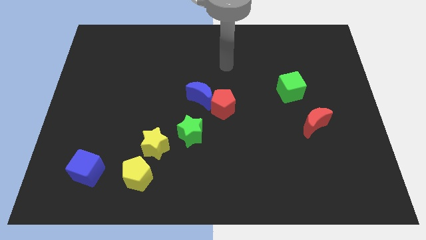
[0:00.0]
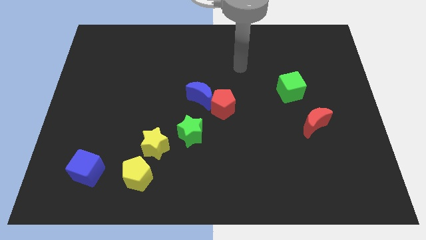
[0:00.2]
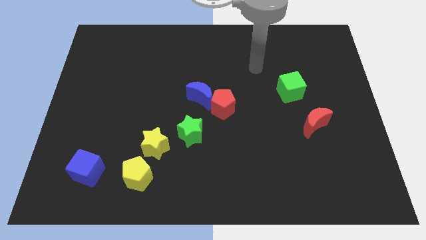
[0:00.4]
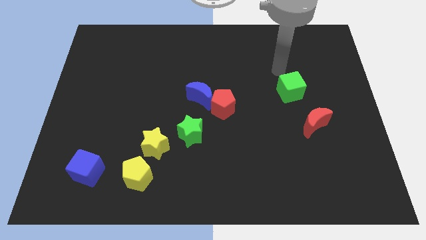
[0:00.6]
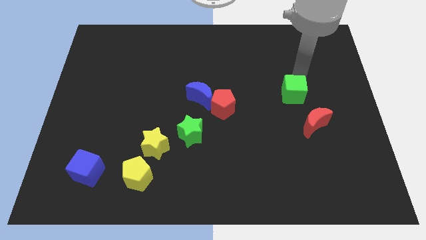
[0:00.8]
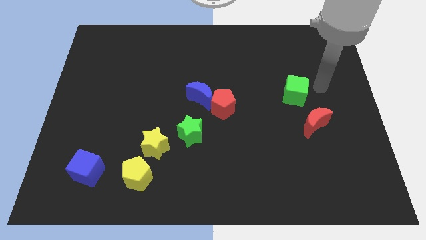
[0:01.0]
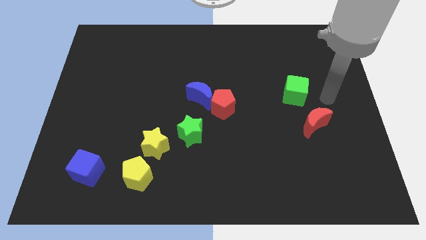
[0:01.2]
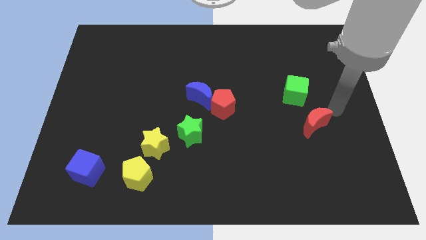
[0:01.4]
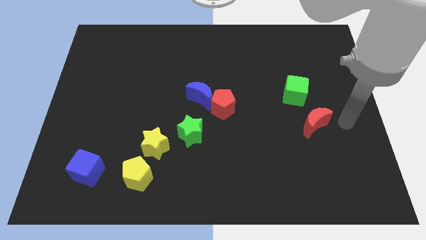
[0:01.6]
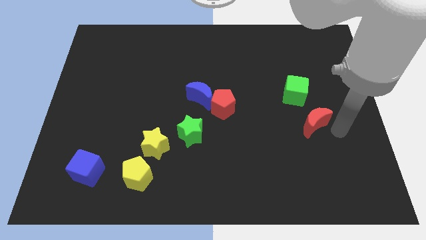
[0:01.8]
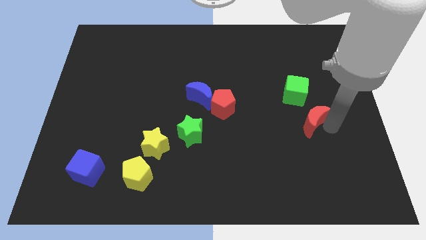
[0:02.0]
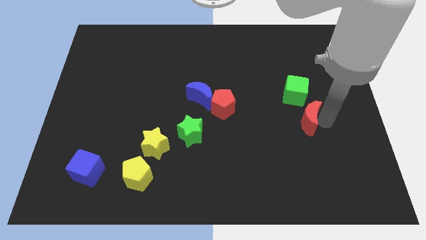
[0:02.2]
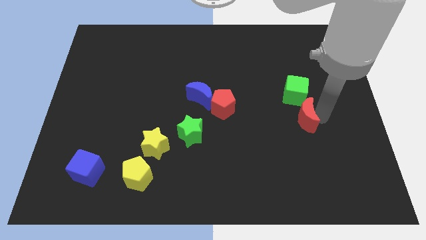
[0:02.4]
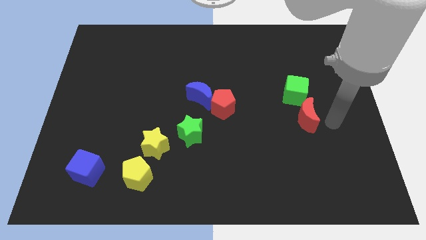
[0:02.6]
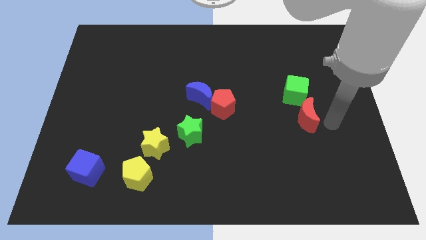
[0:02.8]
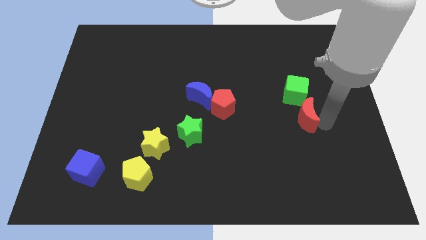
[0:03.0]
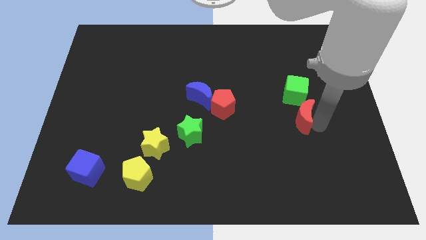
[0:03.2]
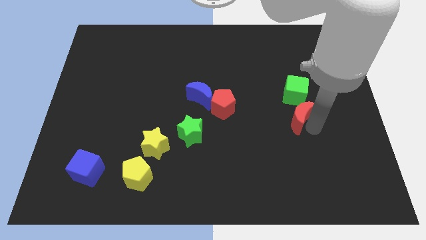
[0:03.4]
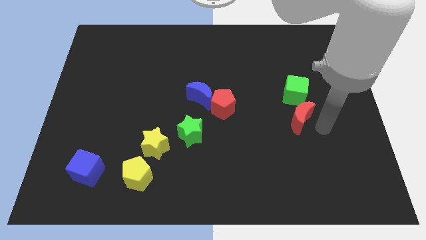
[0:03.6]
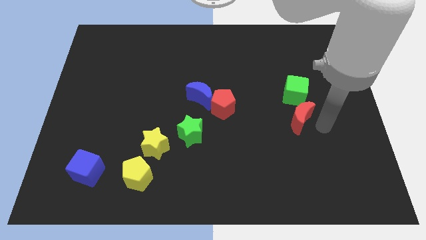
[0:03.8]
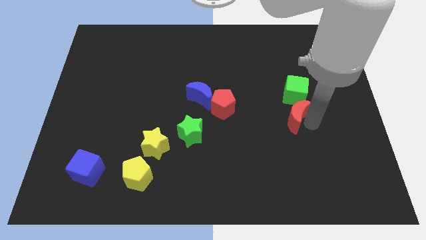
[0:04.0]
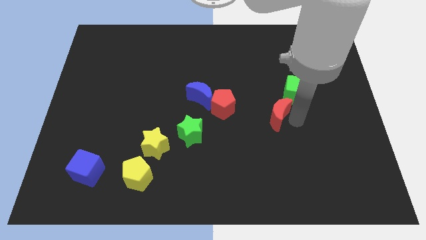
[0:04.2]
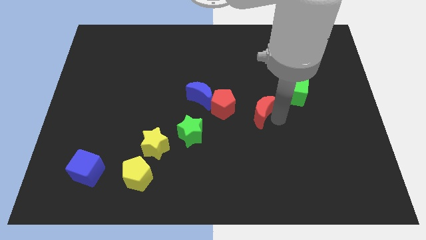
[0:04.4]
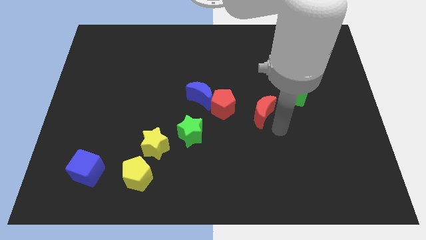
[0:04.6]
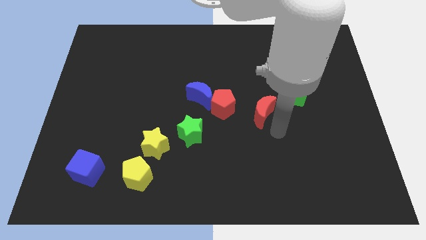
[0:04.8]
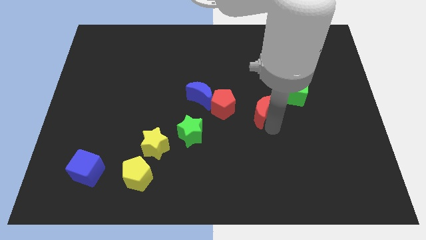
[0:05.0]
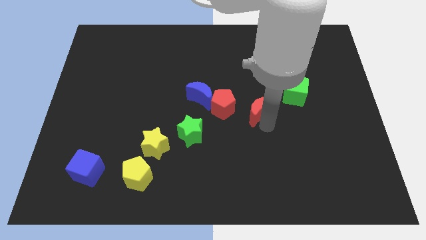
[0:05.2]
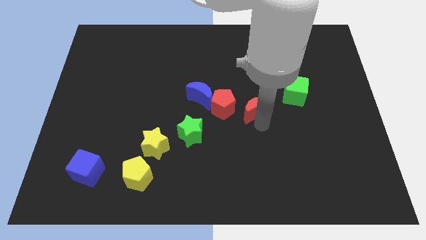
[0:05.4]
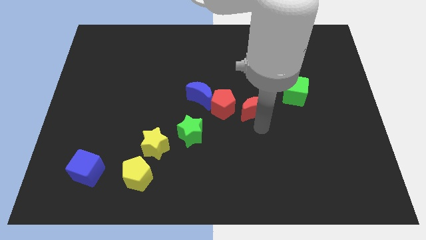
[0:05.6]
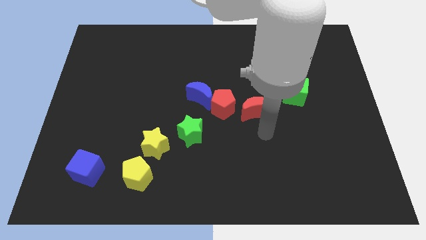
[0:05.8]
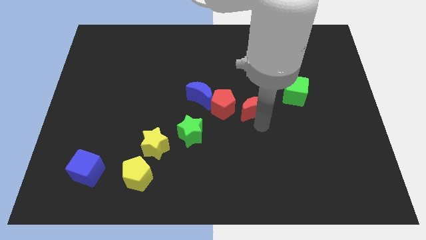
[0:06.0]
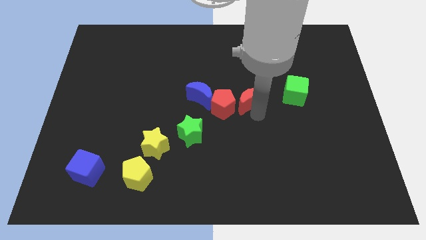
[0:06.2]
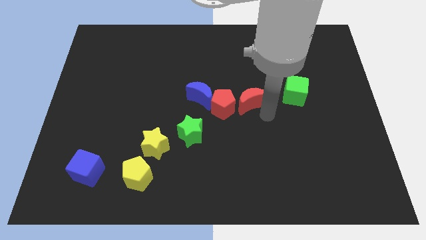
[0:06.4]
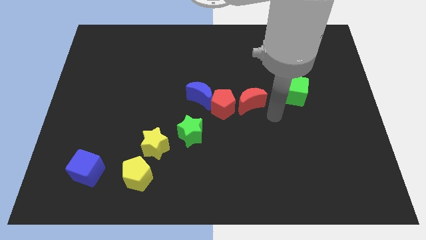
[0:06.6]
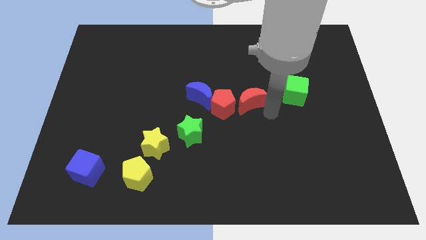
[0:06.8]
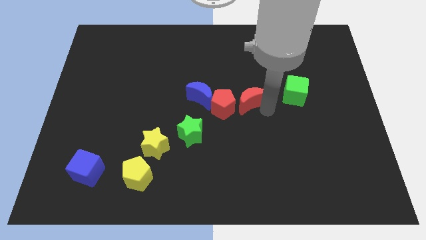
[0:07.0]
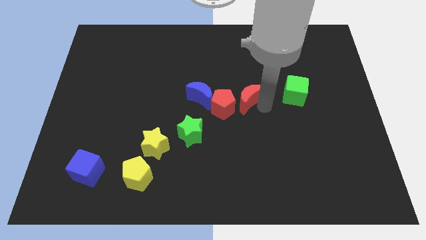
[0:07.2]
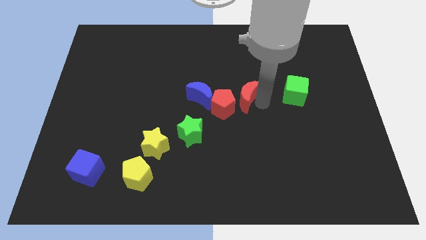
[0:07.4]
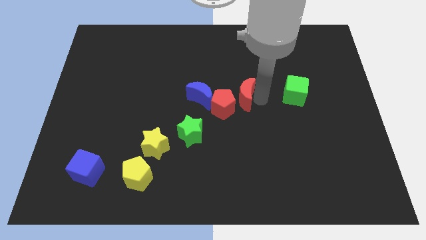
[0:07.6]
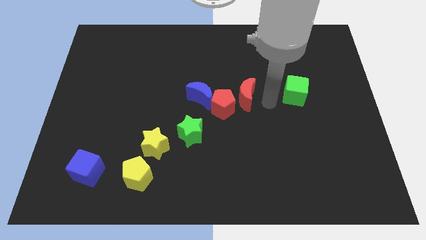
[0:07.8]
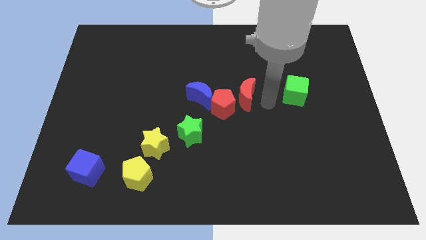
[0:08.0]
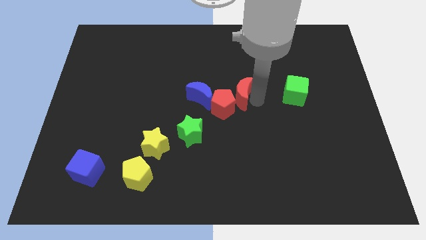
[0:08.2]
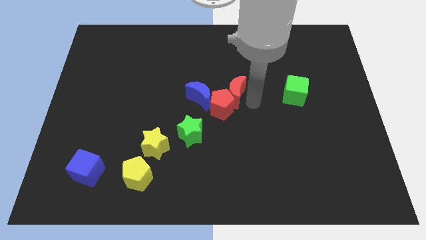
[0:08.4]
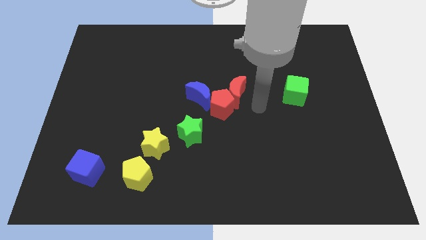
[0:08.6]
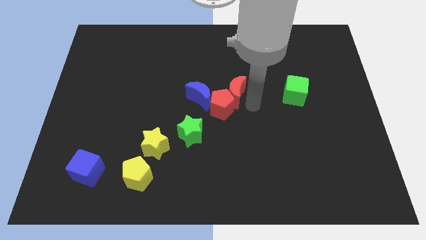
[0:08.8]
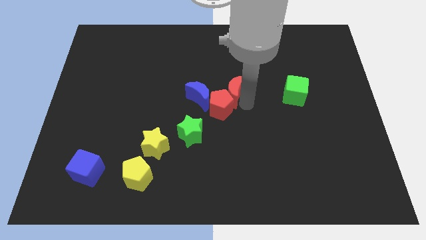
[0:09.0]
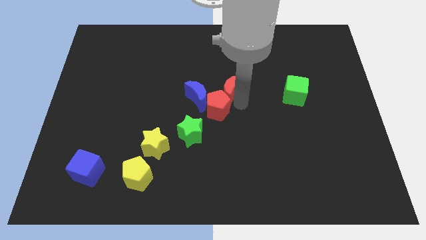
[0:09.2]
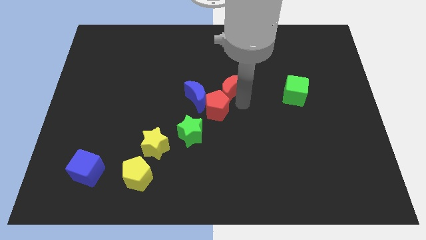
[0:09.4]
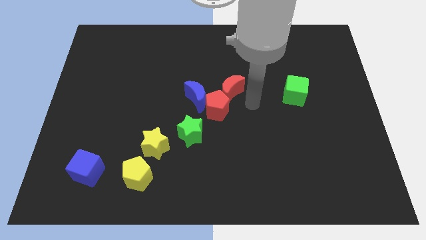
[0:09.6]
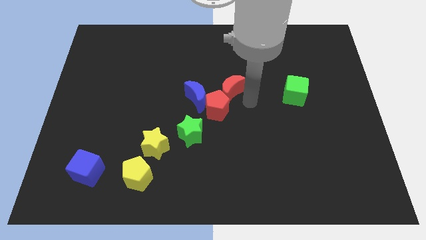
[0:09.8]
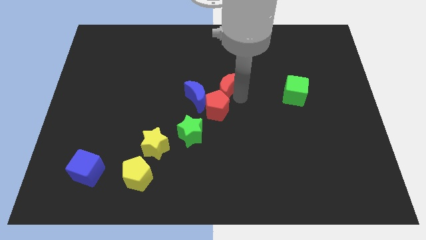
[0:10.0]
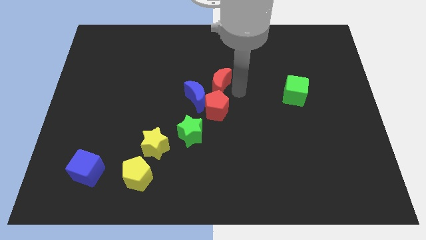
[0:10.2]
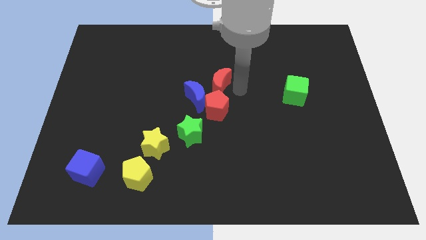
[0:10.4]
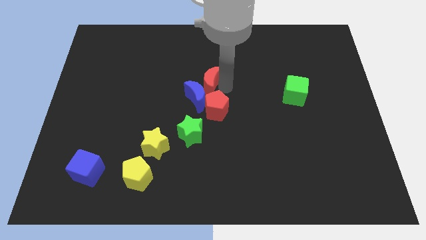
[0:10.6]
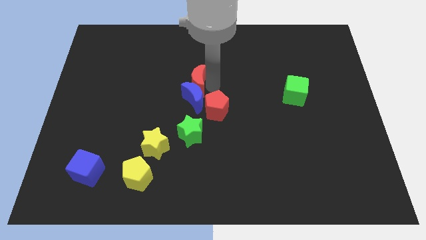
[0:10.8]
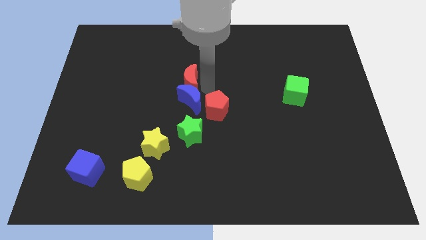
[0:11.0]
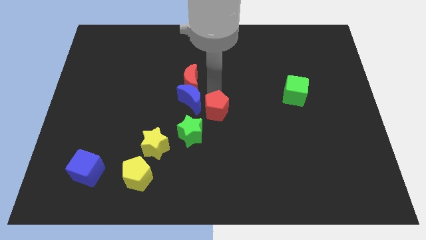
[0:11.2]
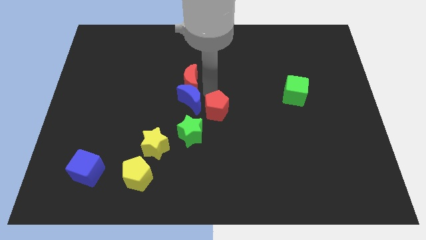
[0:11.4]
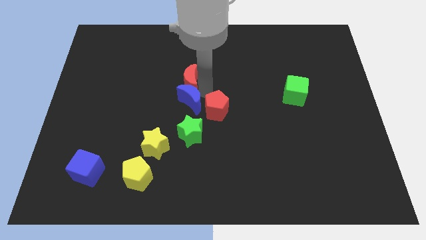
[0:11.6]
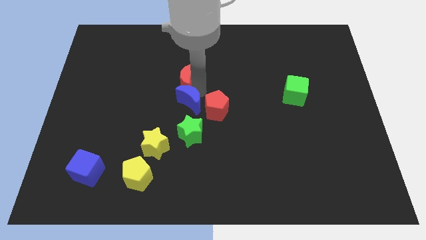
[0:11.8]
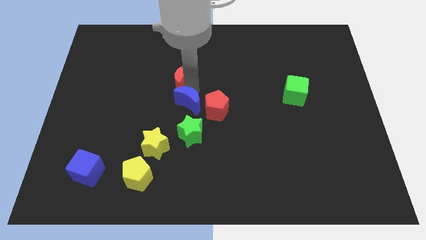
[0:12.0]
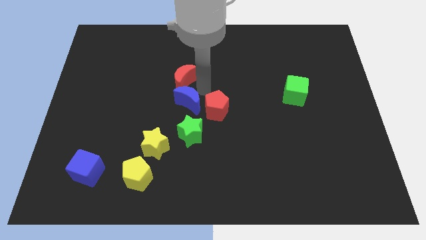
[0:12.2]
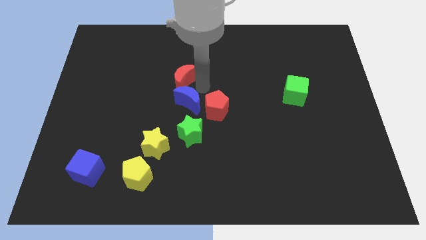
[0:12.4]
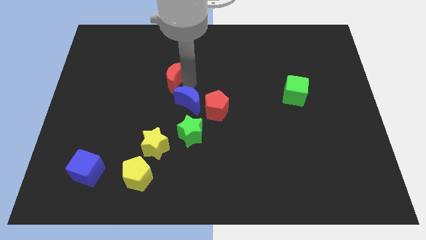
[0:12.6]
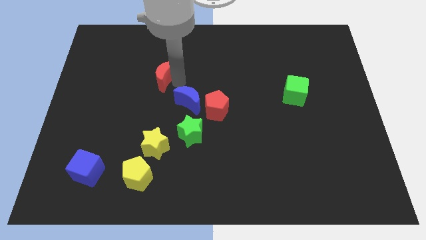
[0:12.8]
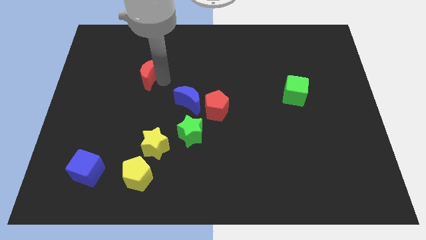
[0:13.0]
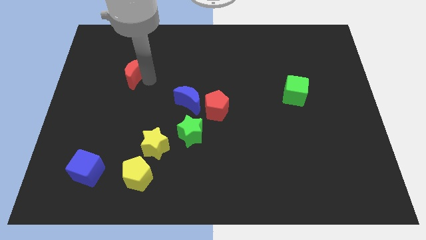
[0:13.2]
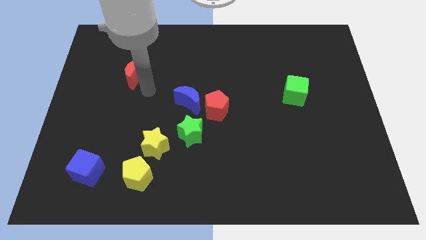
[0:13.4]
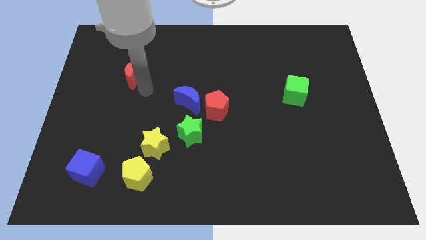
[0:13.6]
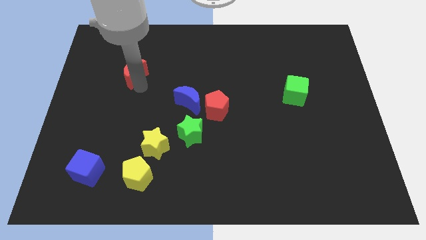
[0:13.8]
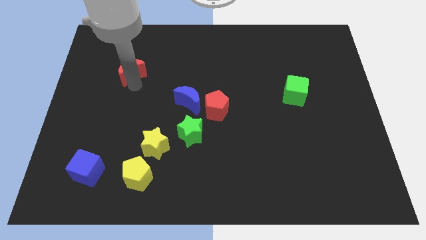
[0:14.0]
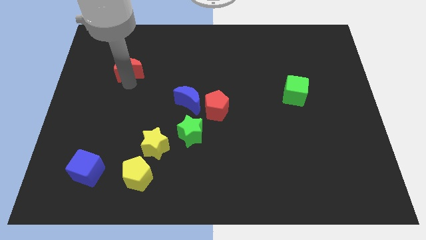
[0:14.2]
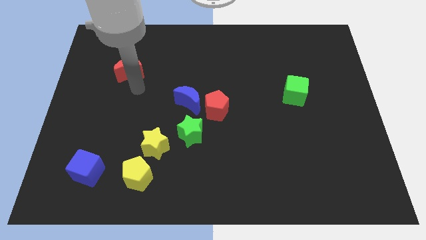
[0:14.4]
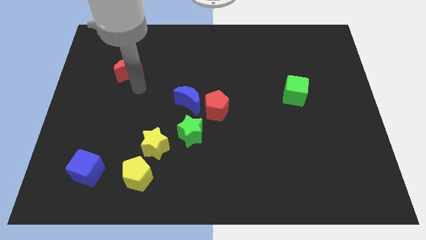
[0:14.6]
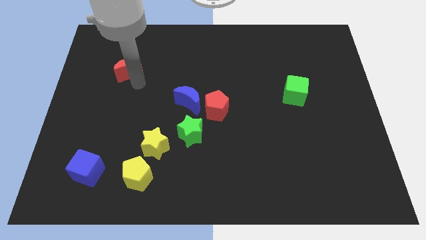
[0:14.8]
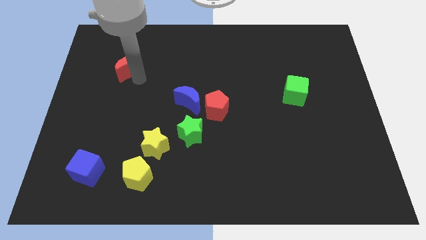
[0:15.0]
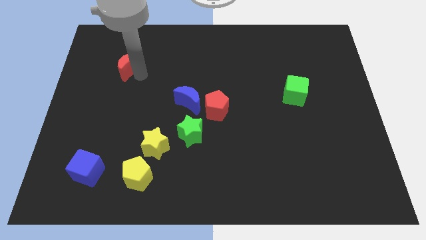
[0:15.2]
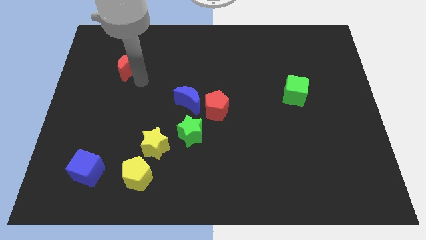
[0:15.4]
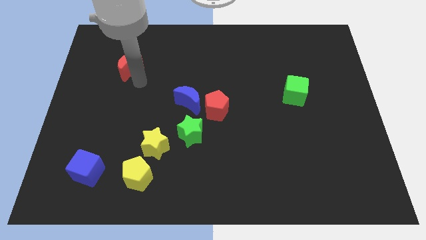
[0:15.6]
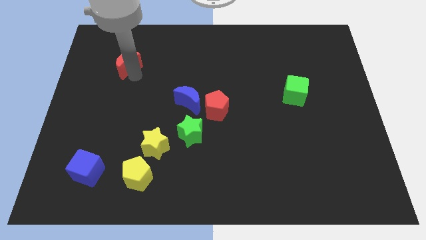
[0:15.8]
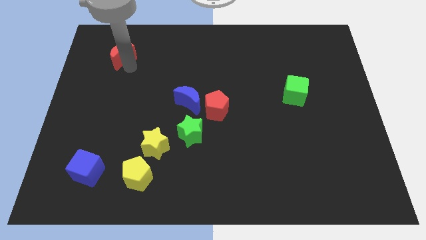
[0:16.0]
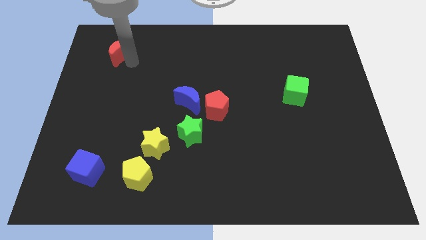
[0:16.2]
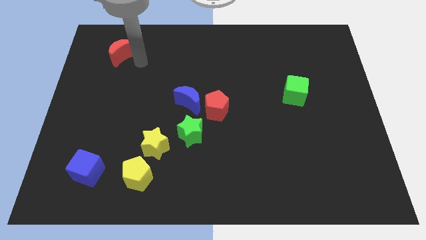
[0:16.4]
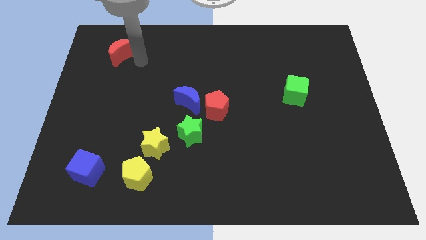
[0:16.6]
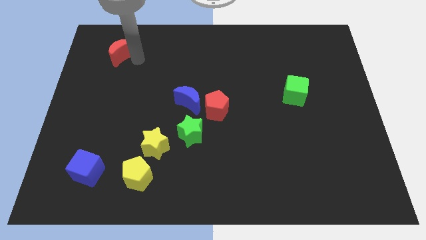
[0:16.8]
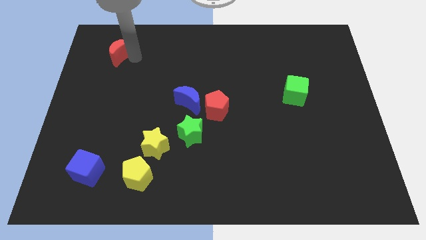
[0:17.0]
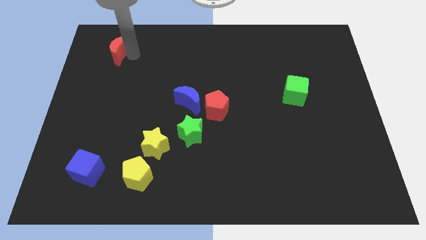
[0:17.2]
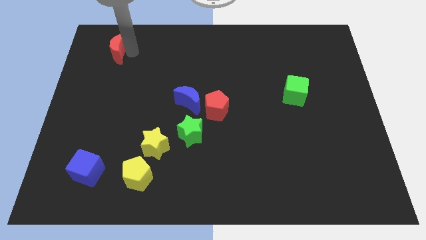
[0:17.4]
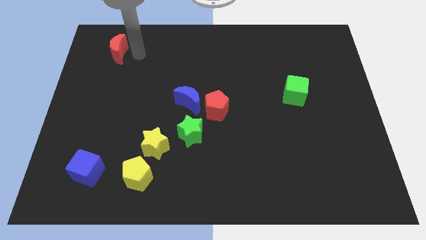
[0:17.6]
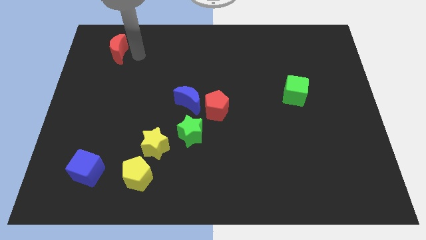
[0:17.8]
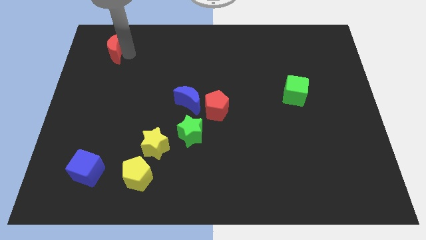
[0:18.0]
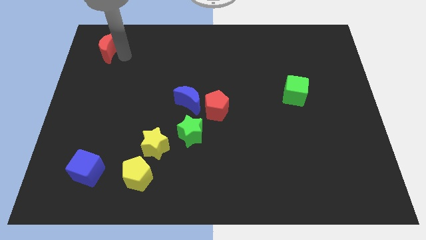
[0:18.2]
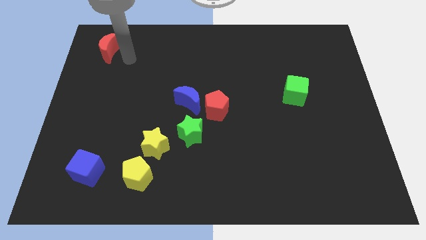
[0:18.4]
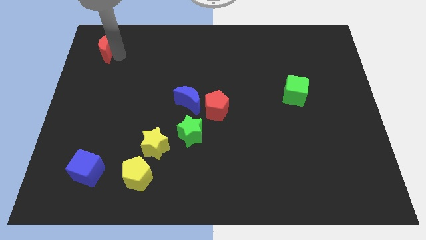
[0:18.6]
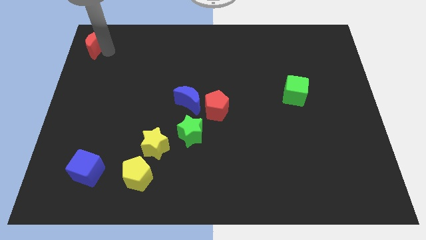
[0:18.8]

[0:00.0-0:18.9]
push the red moon to the top left
